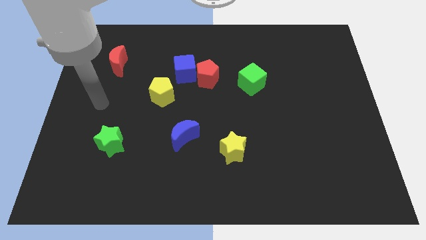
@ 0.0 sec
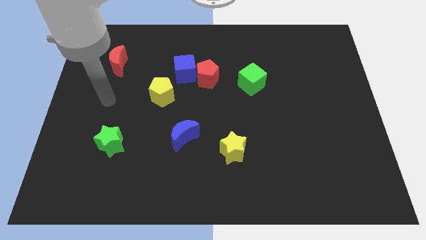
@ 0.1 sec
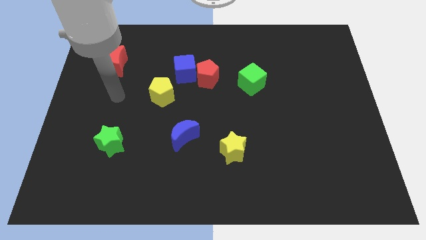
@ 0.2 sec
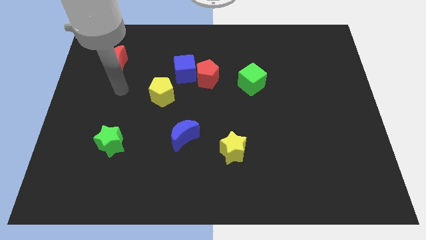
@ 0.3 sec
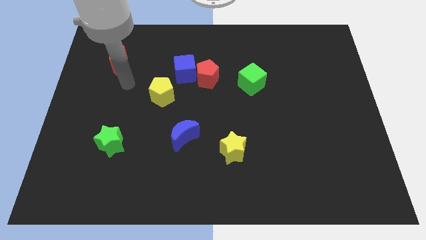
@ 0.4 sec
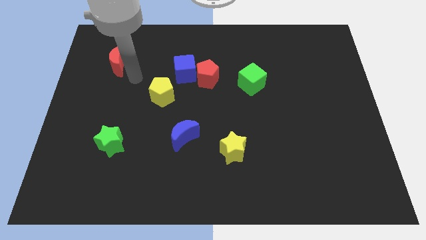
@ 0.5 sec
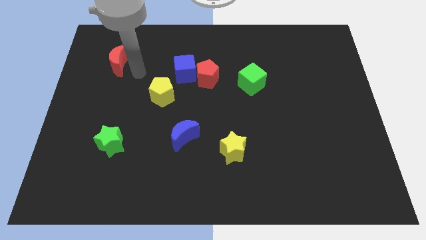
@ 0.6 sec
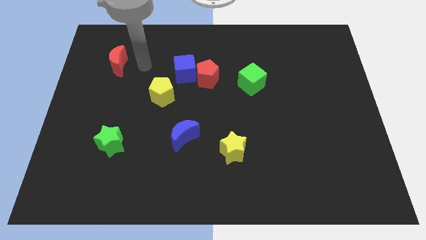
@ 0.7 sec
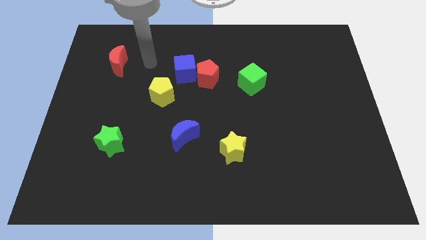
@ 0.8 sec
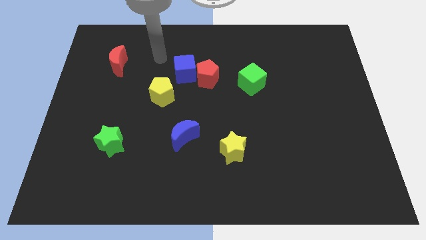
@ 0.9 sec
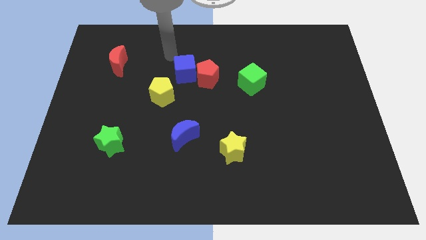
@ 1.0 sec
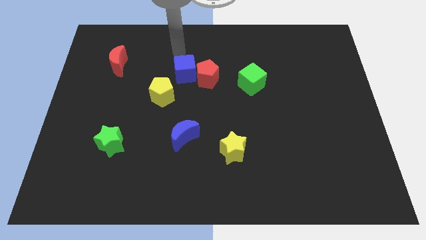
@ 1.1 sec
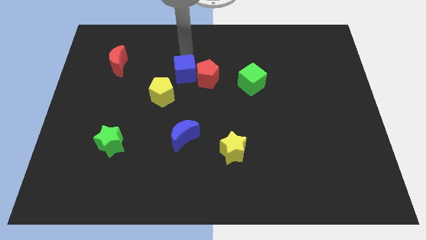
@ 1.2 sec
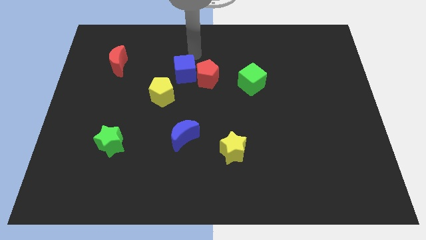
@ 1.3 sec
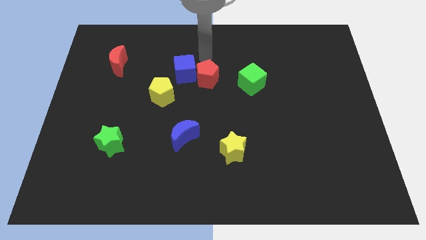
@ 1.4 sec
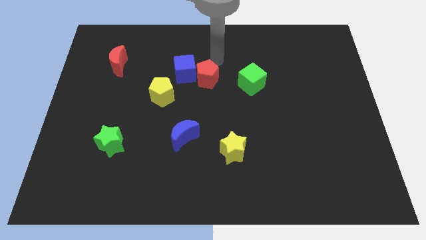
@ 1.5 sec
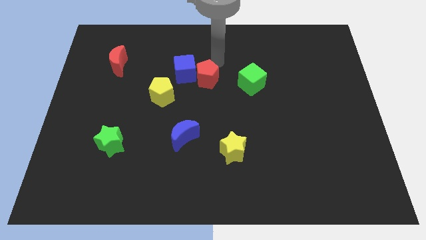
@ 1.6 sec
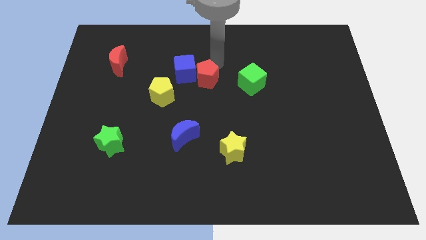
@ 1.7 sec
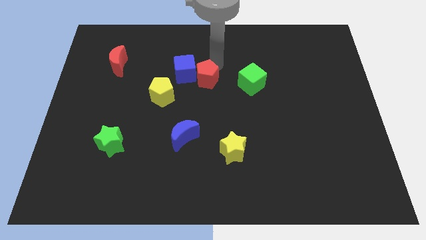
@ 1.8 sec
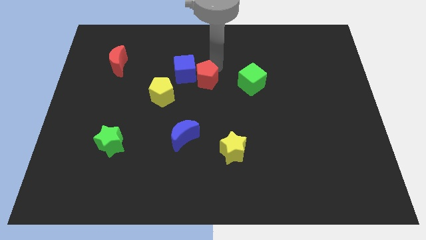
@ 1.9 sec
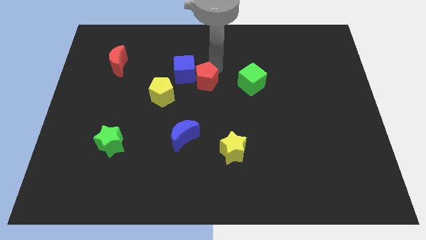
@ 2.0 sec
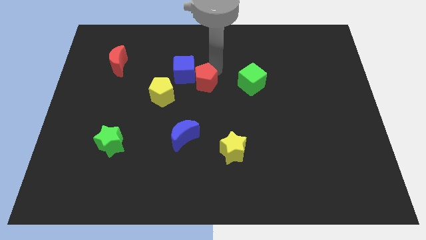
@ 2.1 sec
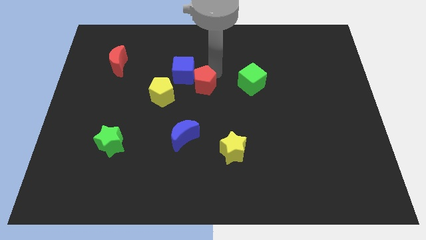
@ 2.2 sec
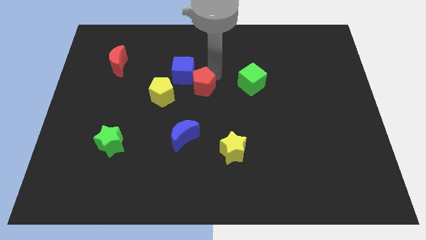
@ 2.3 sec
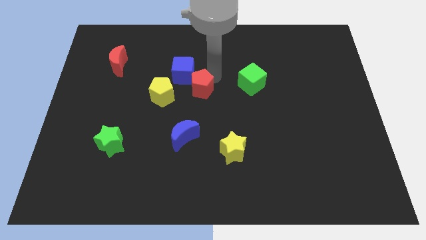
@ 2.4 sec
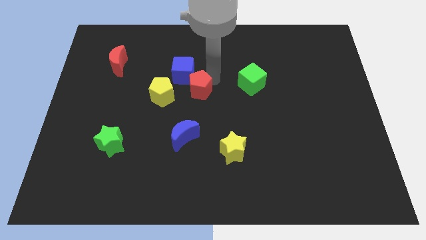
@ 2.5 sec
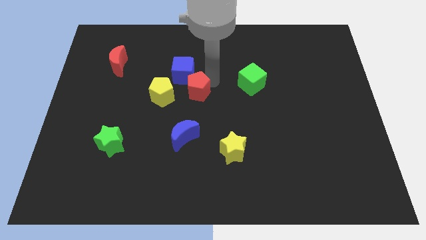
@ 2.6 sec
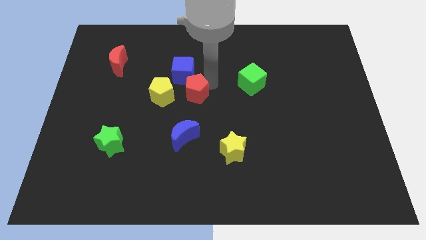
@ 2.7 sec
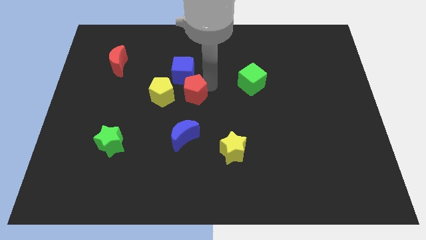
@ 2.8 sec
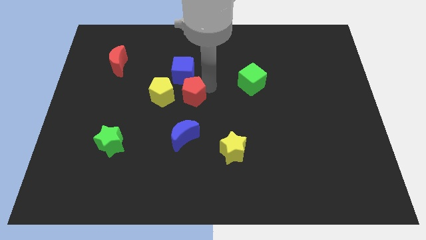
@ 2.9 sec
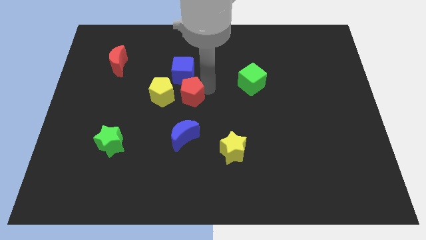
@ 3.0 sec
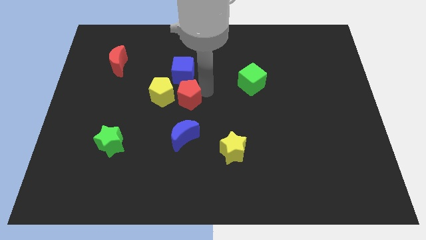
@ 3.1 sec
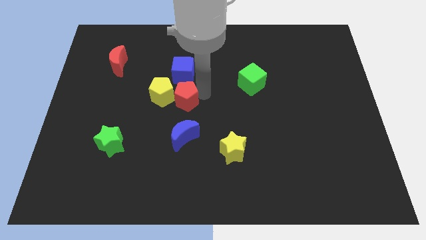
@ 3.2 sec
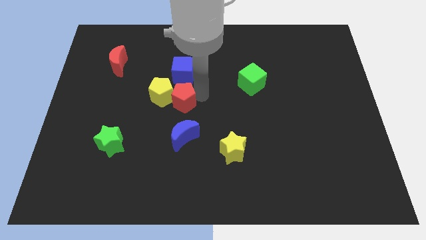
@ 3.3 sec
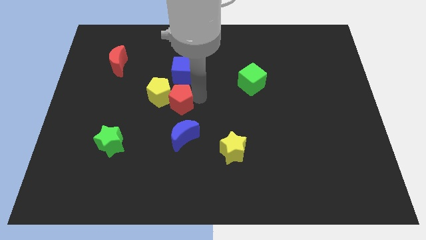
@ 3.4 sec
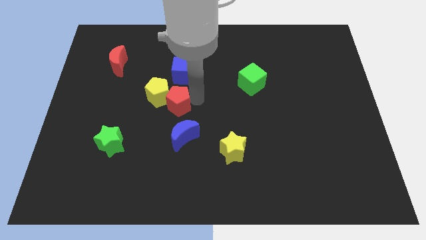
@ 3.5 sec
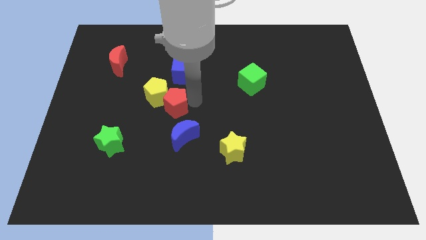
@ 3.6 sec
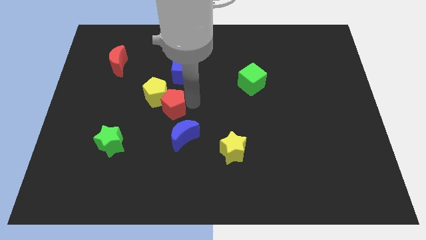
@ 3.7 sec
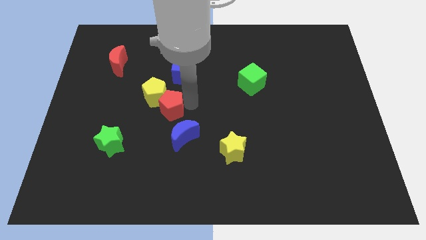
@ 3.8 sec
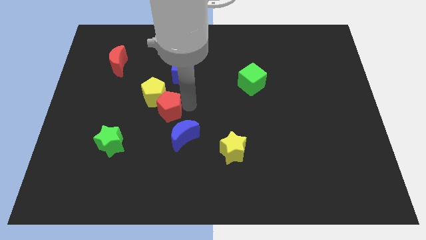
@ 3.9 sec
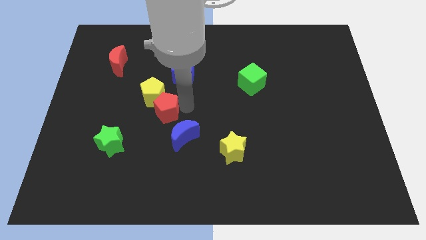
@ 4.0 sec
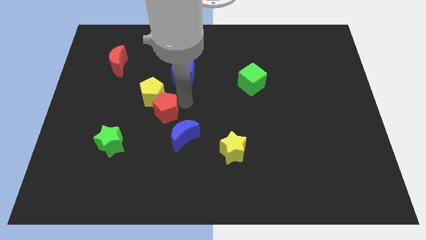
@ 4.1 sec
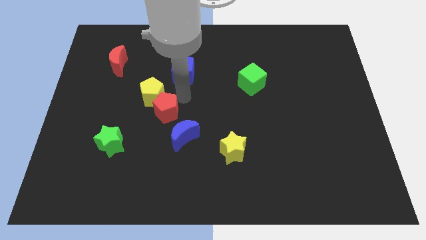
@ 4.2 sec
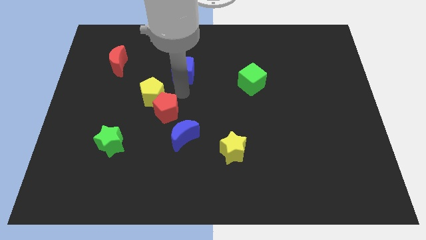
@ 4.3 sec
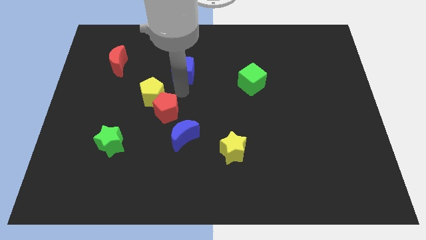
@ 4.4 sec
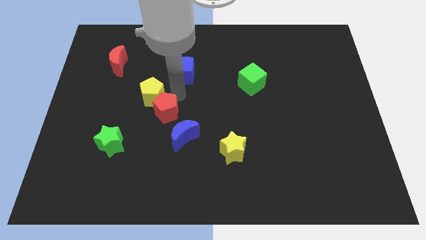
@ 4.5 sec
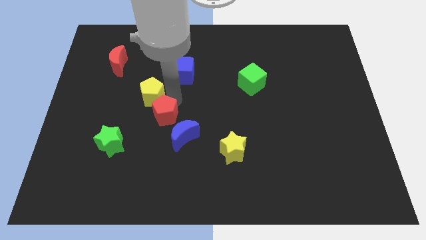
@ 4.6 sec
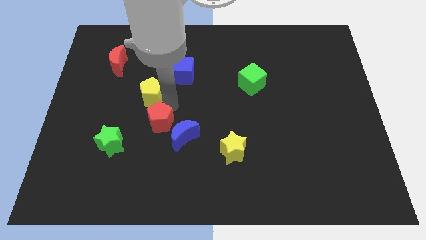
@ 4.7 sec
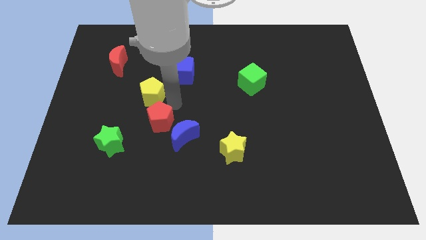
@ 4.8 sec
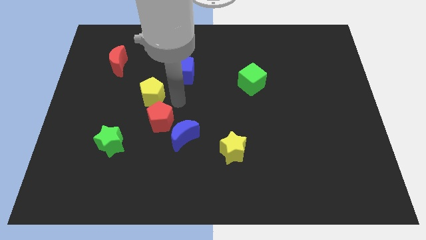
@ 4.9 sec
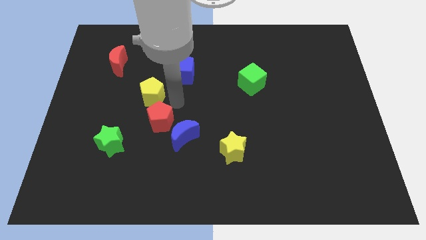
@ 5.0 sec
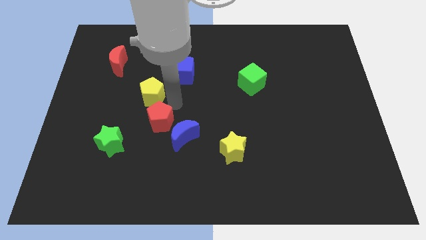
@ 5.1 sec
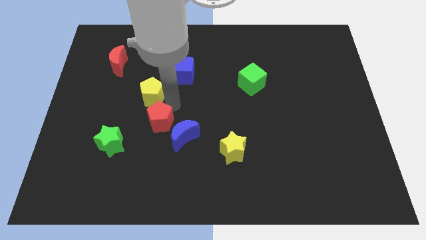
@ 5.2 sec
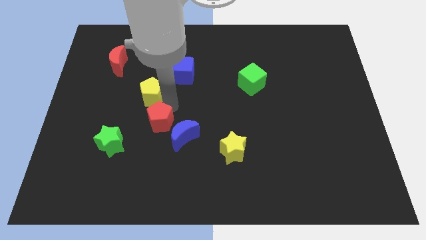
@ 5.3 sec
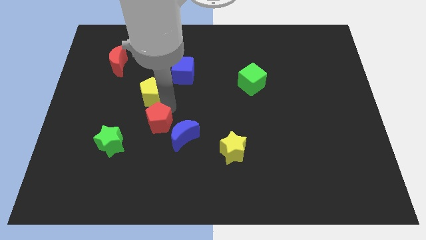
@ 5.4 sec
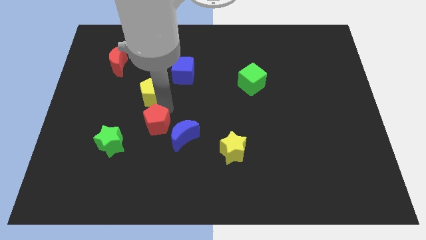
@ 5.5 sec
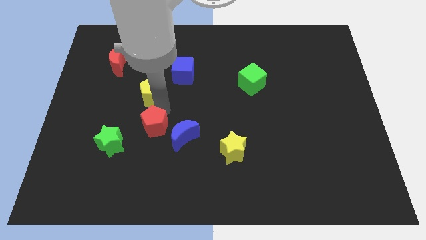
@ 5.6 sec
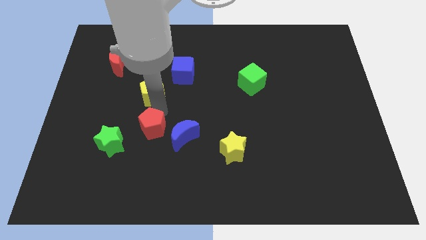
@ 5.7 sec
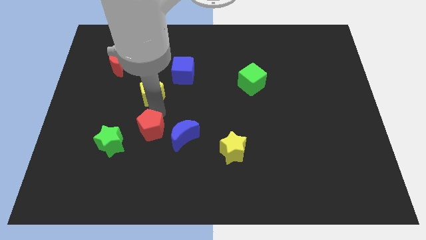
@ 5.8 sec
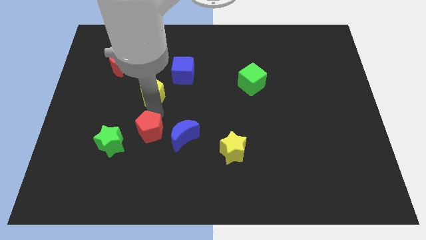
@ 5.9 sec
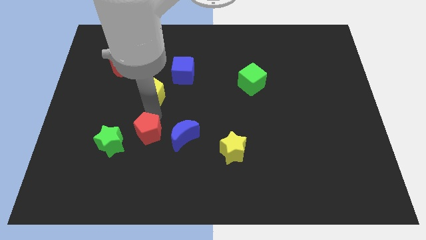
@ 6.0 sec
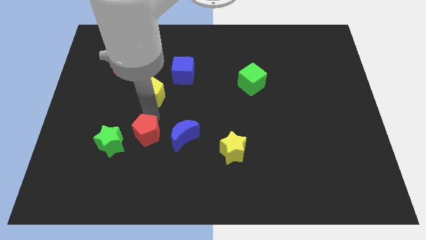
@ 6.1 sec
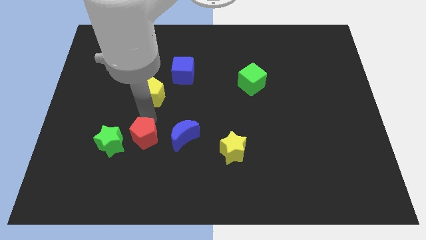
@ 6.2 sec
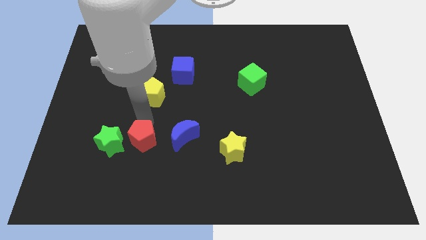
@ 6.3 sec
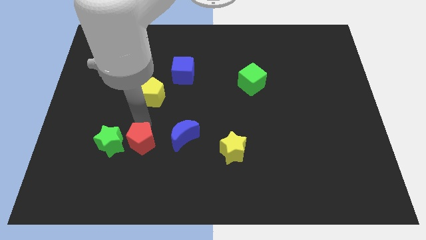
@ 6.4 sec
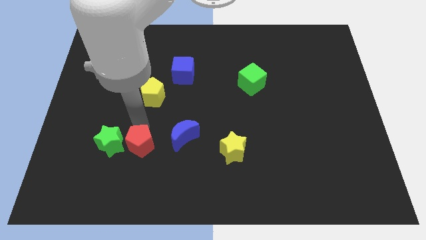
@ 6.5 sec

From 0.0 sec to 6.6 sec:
put the red pentagon diagonally down and to the right of the green star

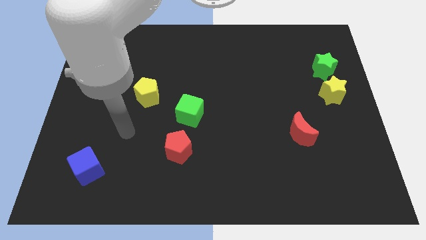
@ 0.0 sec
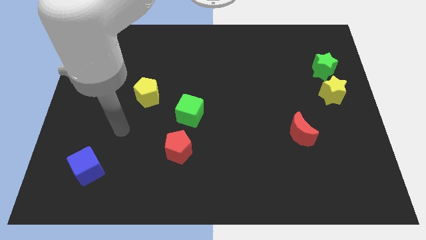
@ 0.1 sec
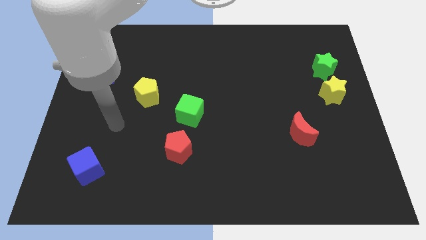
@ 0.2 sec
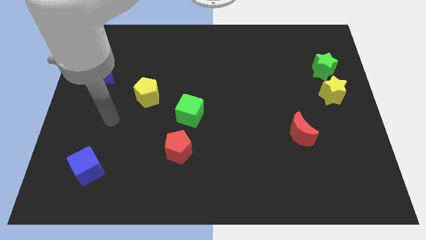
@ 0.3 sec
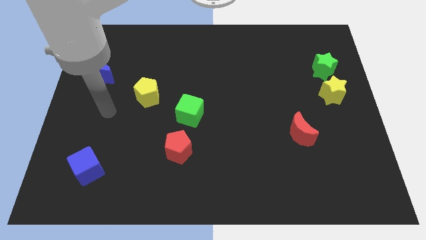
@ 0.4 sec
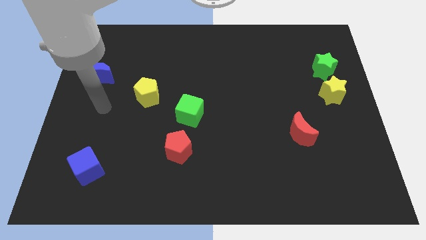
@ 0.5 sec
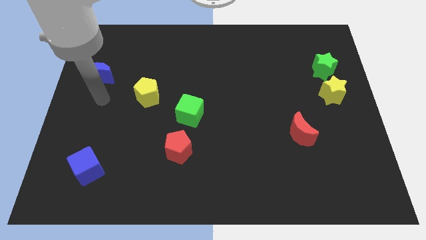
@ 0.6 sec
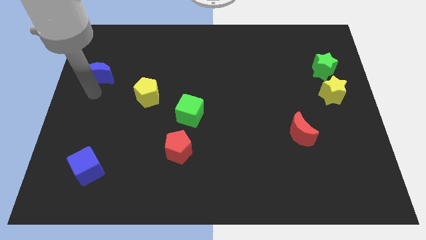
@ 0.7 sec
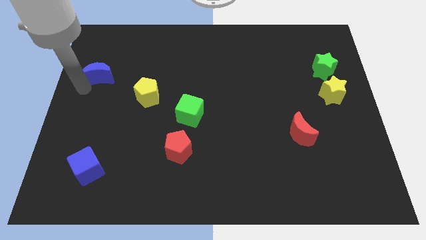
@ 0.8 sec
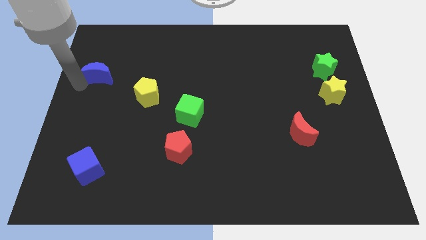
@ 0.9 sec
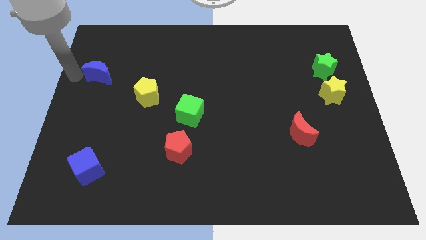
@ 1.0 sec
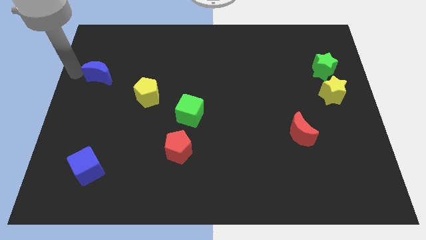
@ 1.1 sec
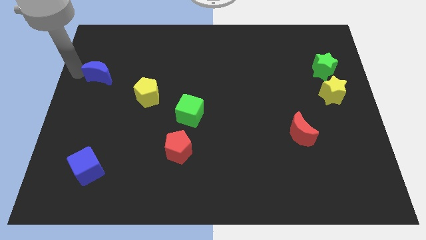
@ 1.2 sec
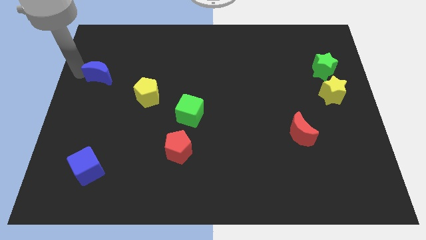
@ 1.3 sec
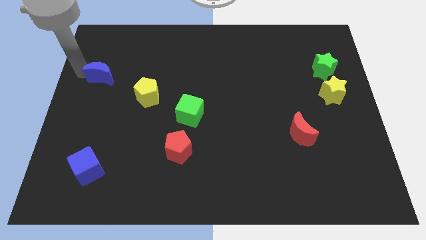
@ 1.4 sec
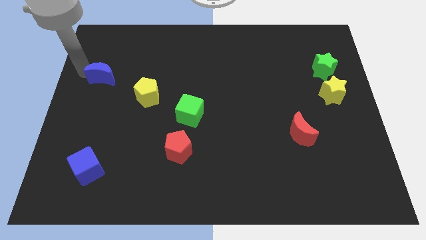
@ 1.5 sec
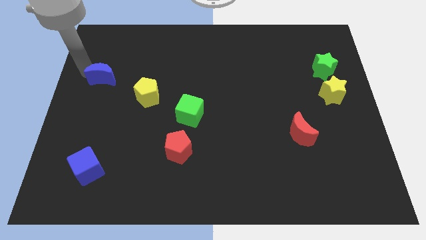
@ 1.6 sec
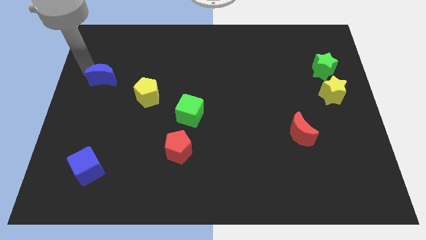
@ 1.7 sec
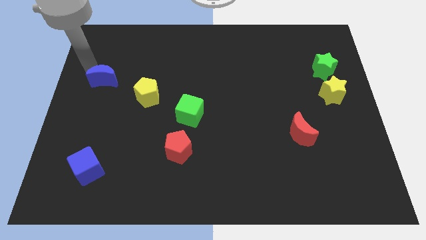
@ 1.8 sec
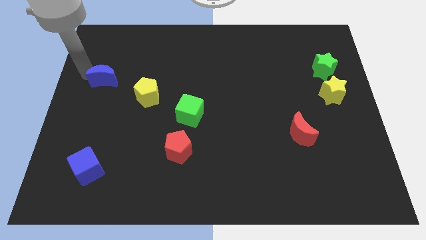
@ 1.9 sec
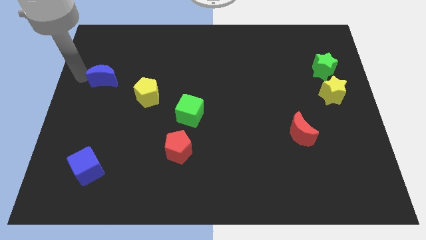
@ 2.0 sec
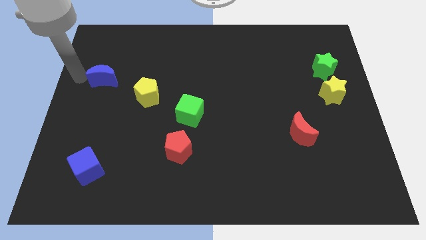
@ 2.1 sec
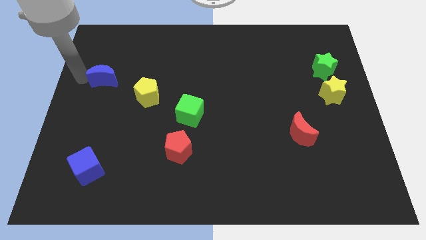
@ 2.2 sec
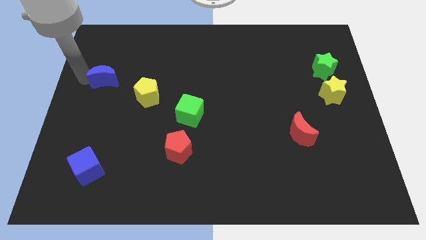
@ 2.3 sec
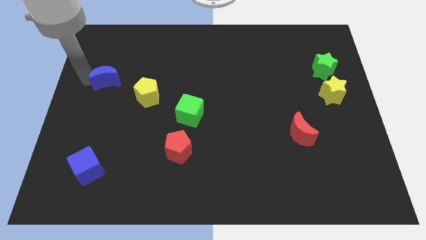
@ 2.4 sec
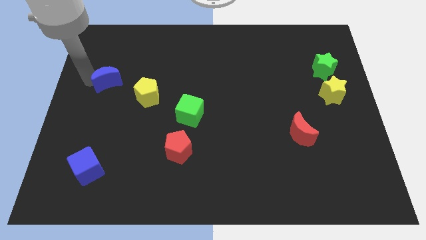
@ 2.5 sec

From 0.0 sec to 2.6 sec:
slide the blue moon to the top left side of the yellow pentagon
